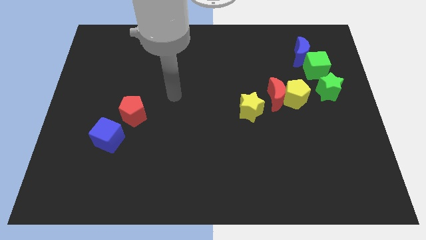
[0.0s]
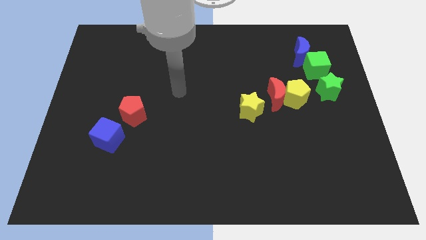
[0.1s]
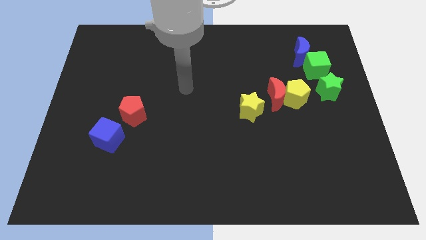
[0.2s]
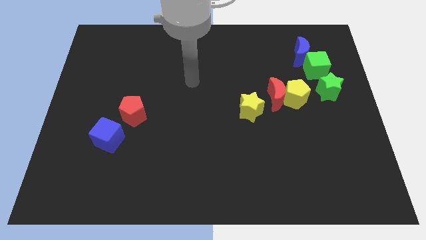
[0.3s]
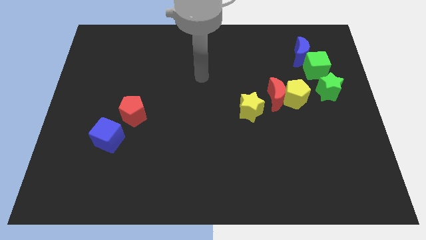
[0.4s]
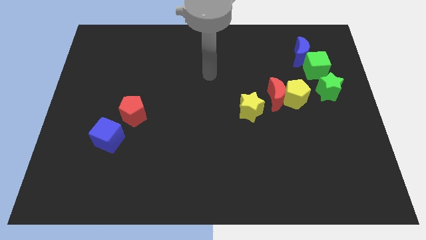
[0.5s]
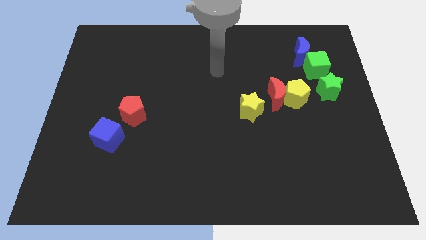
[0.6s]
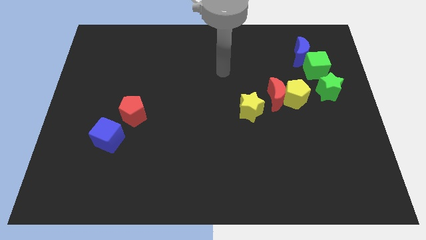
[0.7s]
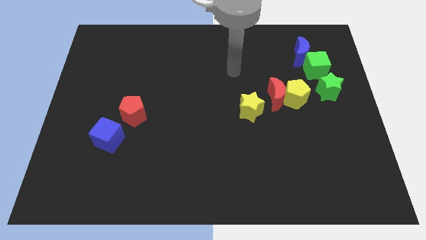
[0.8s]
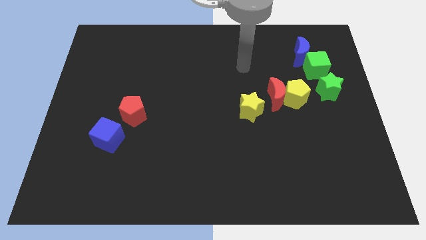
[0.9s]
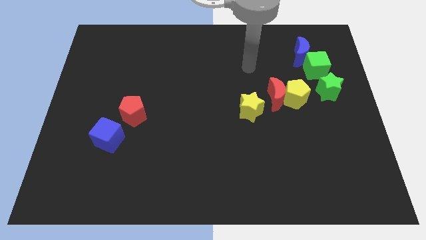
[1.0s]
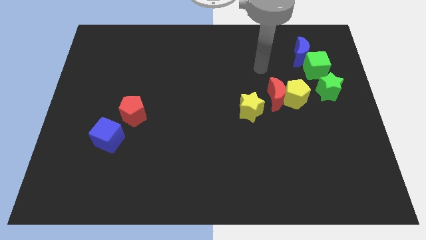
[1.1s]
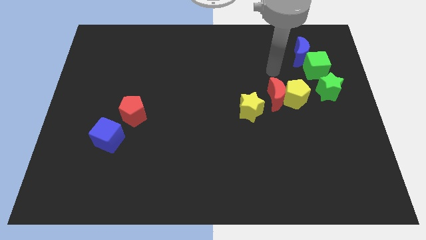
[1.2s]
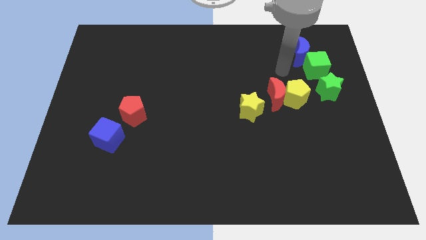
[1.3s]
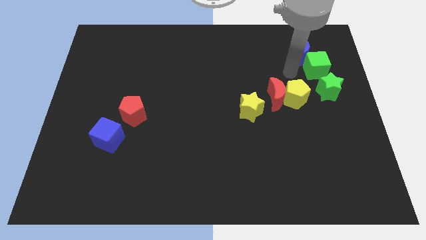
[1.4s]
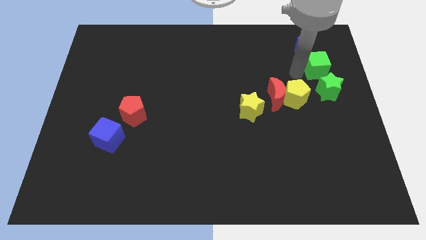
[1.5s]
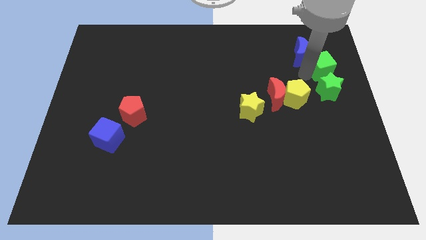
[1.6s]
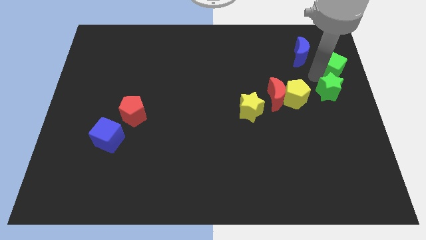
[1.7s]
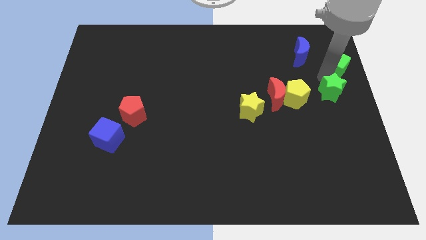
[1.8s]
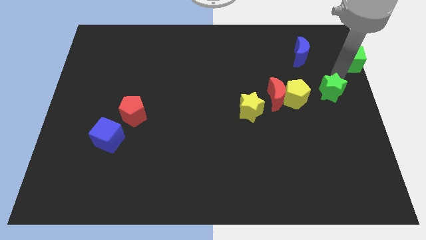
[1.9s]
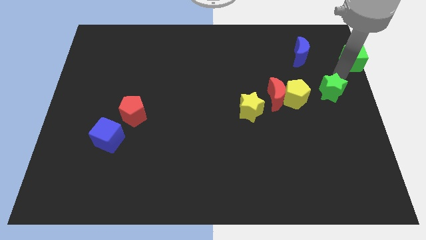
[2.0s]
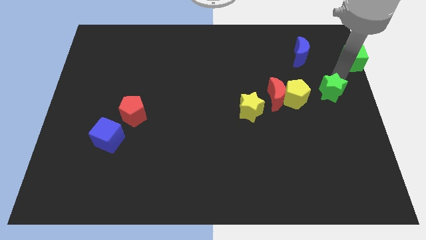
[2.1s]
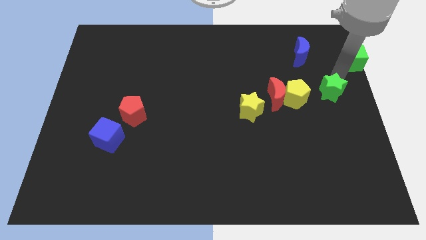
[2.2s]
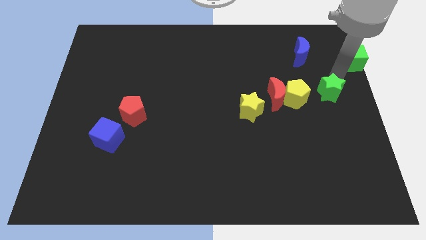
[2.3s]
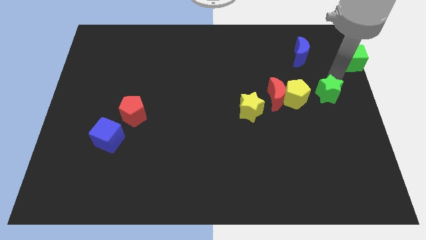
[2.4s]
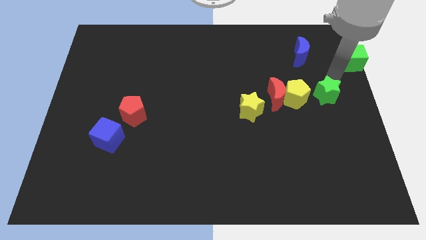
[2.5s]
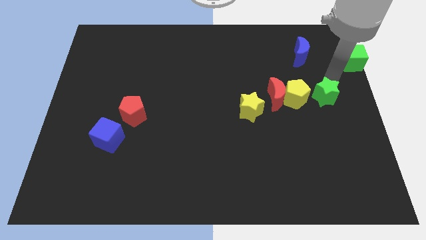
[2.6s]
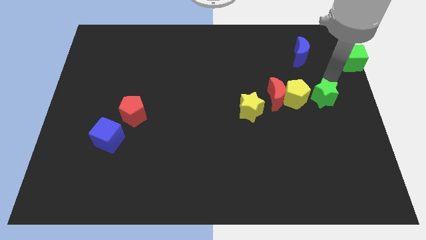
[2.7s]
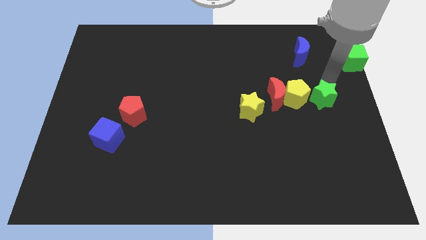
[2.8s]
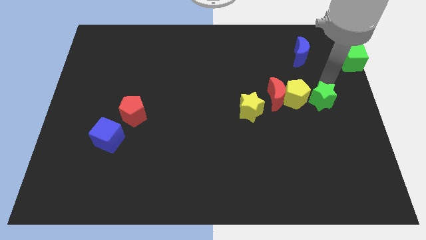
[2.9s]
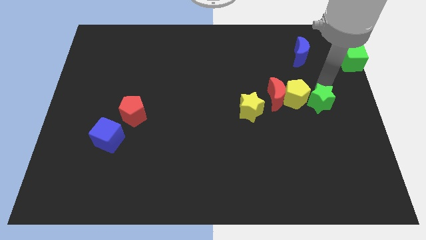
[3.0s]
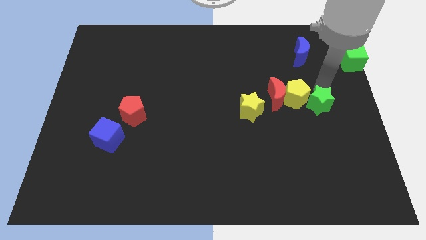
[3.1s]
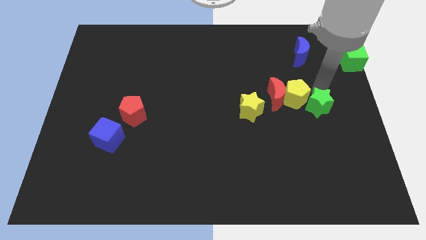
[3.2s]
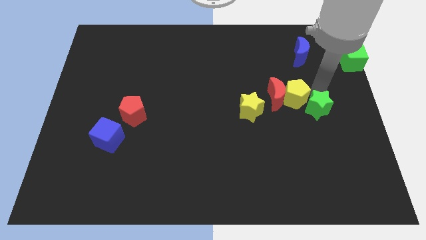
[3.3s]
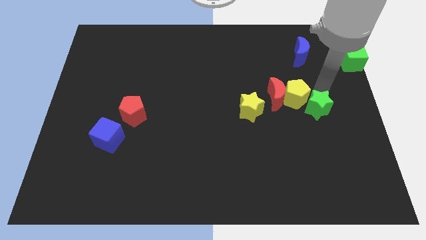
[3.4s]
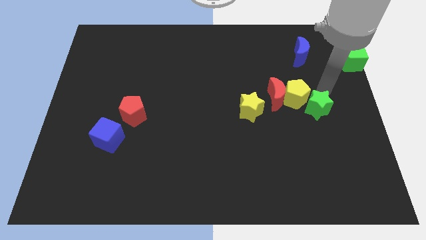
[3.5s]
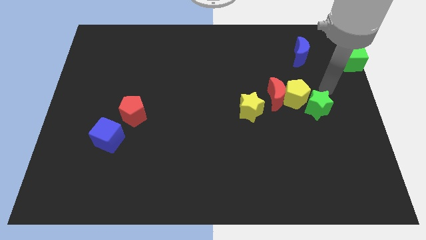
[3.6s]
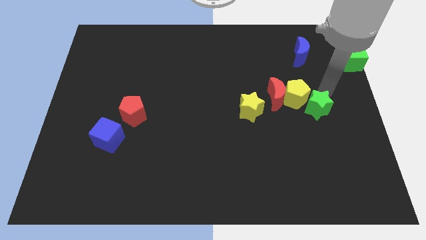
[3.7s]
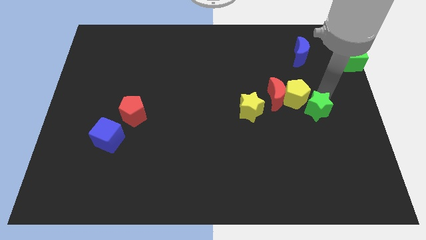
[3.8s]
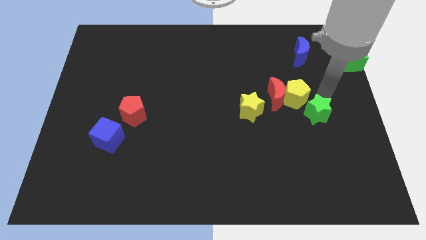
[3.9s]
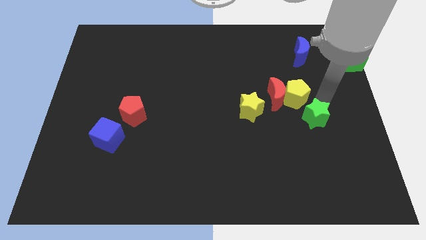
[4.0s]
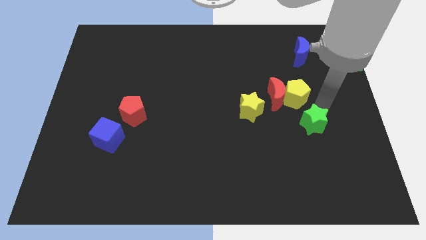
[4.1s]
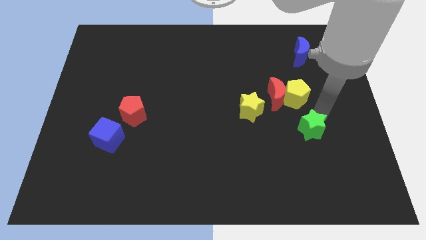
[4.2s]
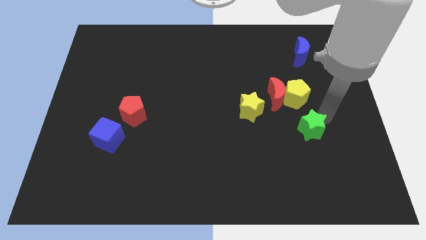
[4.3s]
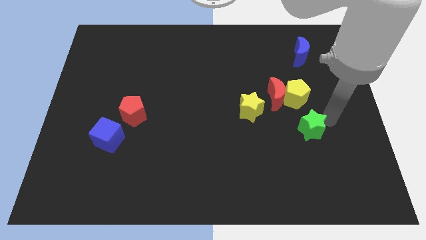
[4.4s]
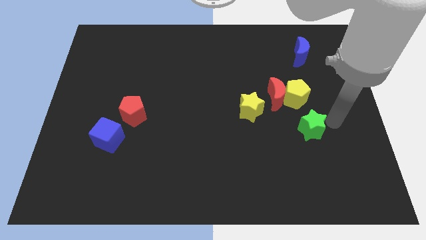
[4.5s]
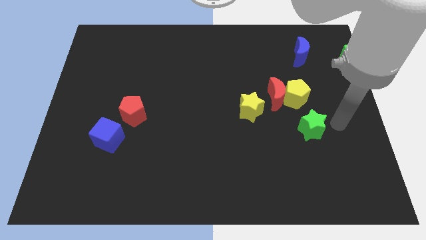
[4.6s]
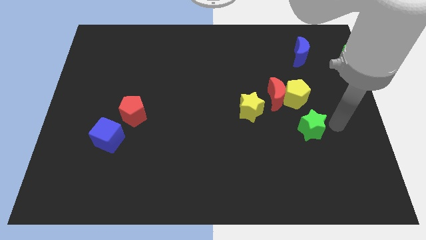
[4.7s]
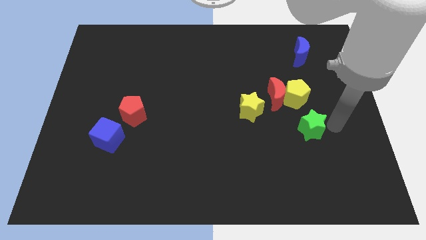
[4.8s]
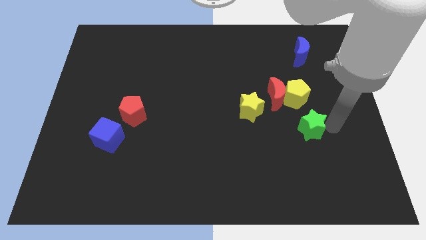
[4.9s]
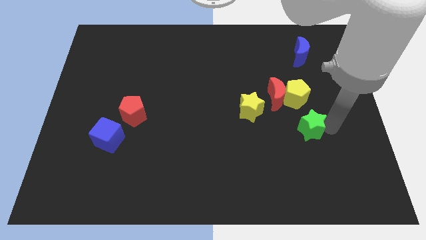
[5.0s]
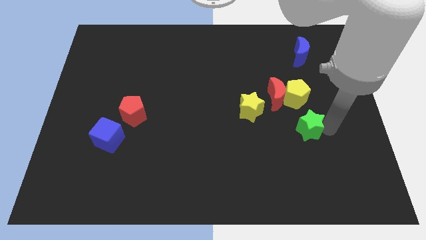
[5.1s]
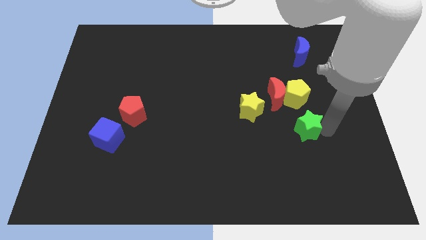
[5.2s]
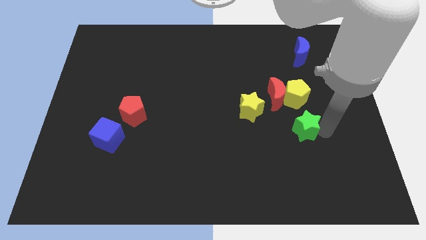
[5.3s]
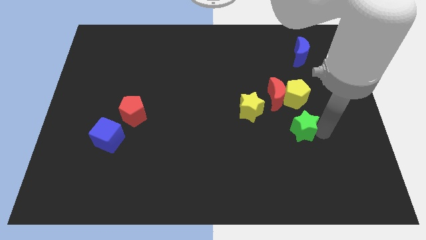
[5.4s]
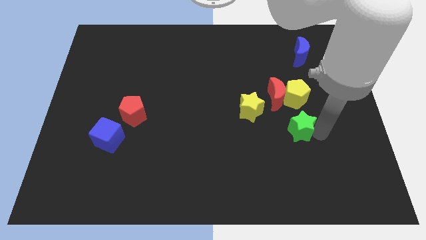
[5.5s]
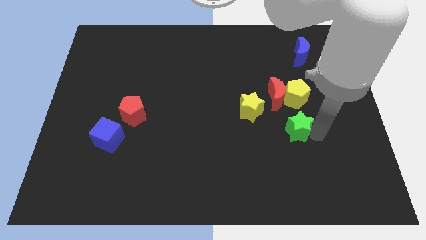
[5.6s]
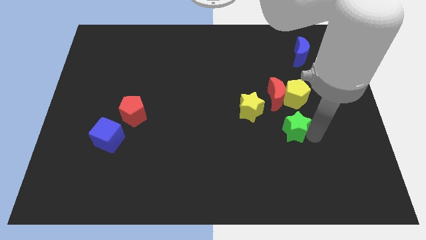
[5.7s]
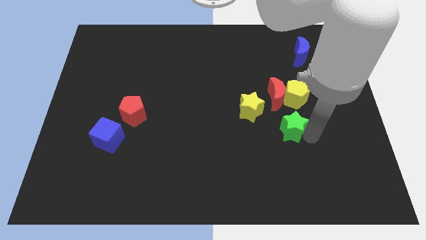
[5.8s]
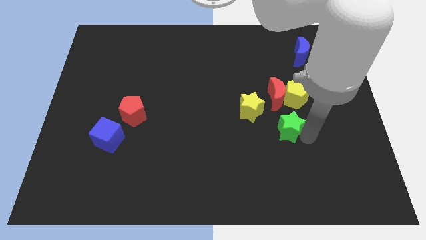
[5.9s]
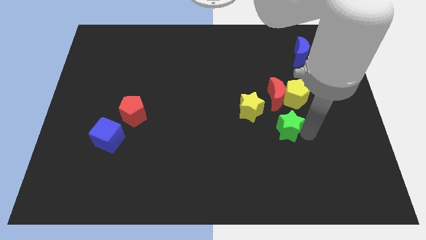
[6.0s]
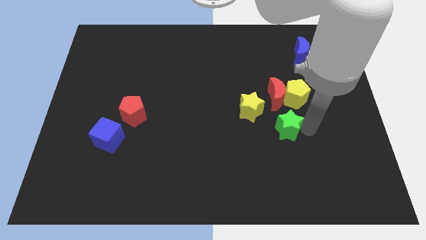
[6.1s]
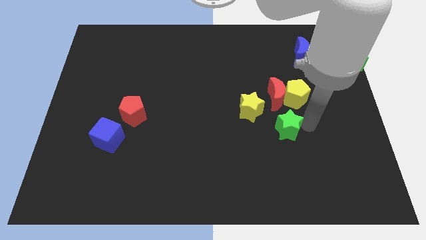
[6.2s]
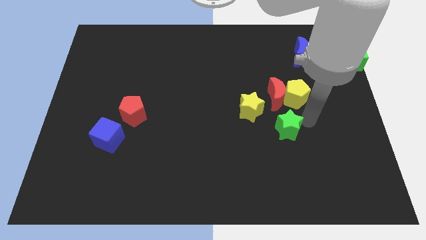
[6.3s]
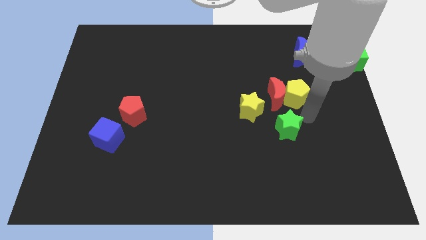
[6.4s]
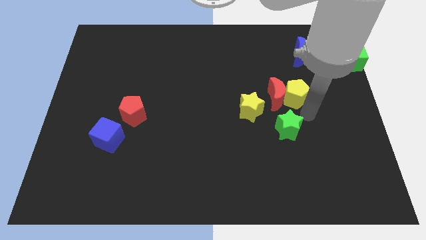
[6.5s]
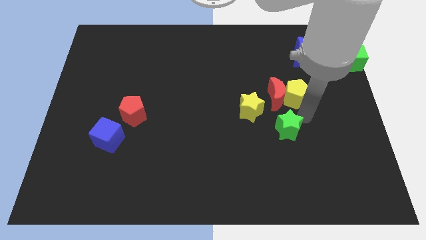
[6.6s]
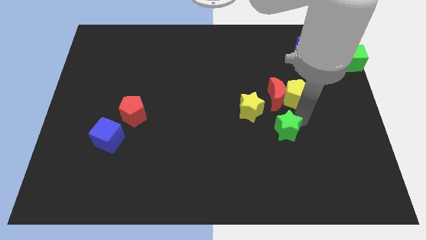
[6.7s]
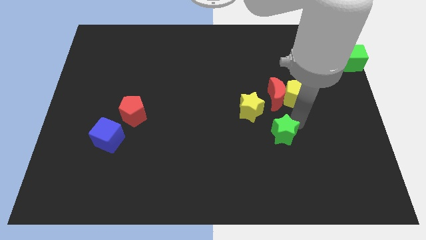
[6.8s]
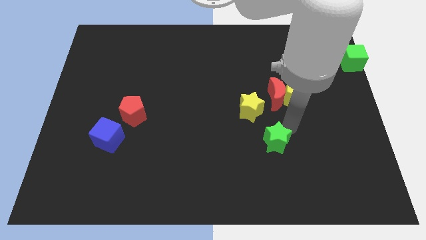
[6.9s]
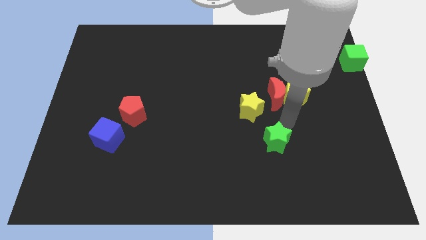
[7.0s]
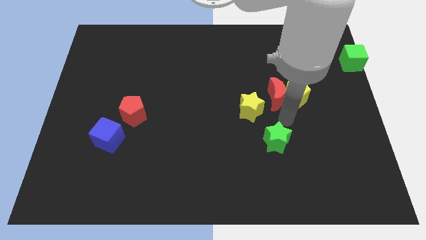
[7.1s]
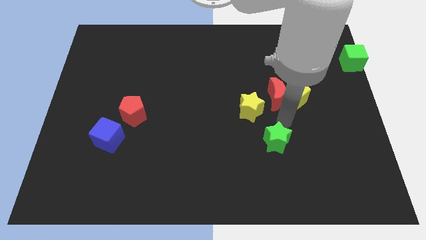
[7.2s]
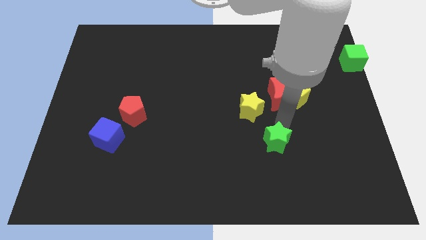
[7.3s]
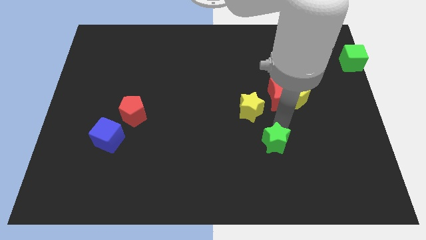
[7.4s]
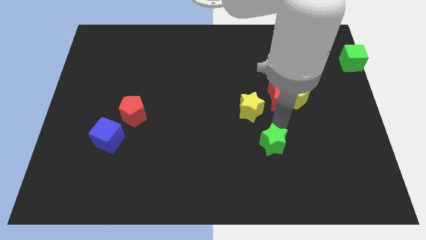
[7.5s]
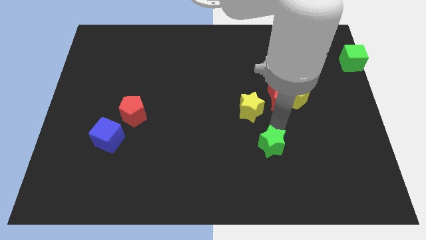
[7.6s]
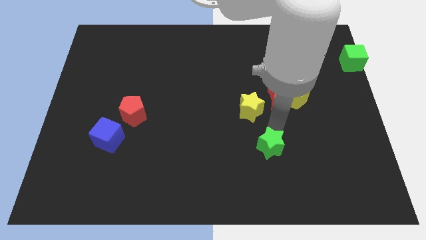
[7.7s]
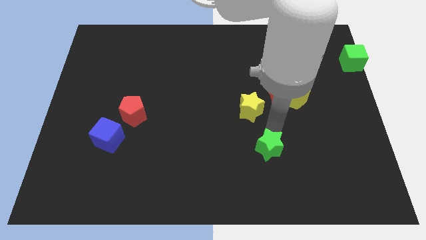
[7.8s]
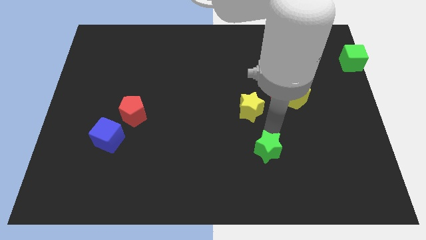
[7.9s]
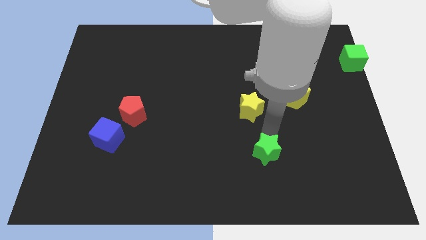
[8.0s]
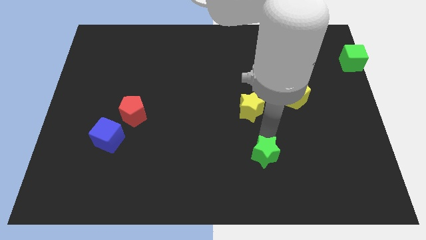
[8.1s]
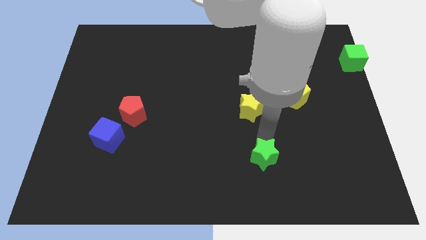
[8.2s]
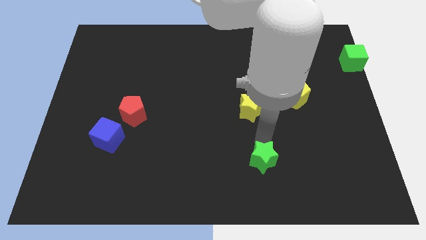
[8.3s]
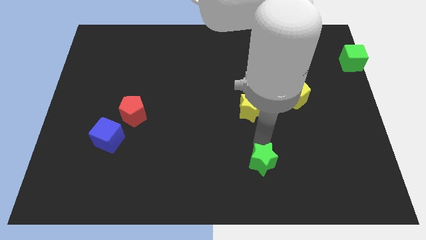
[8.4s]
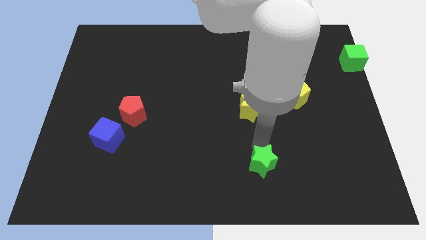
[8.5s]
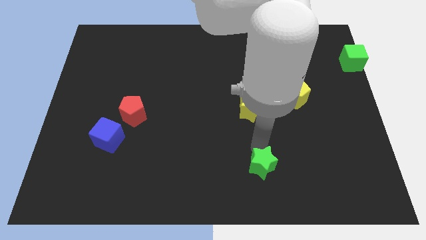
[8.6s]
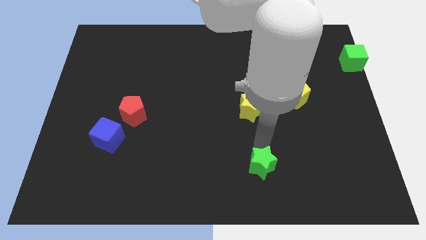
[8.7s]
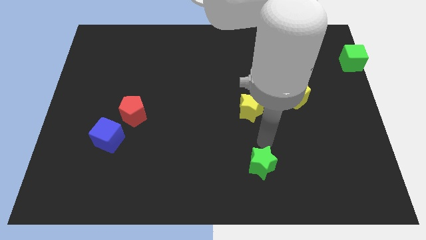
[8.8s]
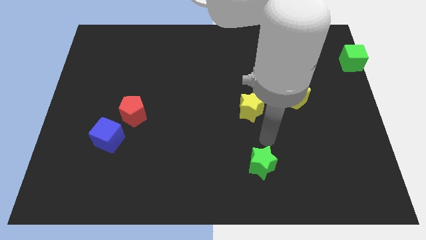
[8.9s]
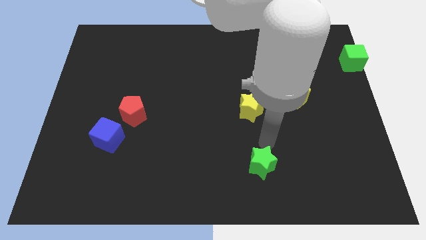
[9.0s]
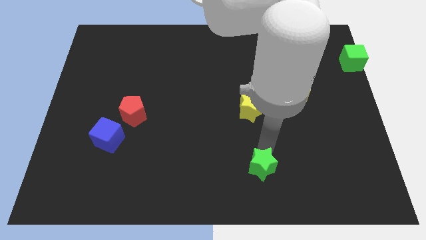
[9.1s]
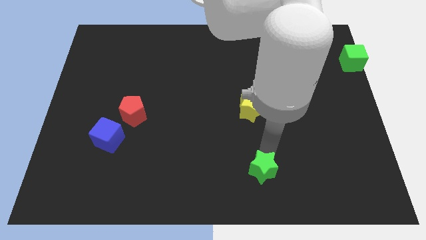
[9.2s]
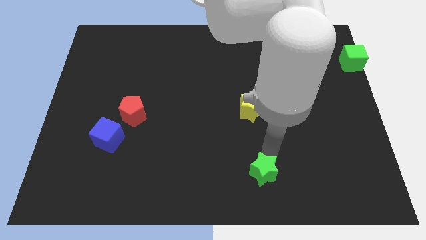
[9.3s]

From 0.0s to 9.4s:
move the green star to the bottom side
